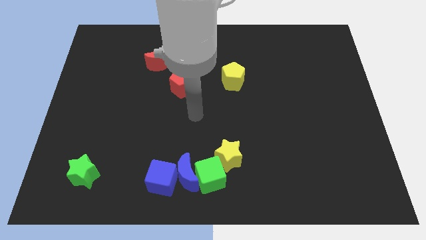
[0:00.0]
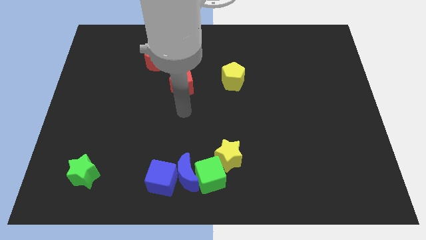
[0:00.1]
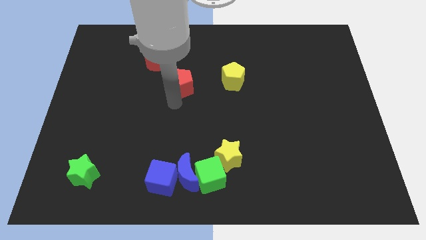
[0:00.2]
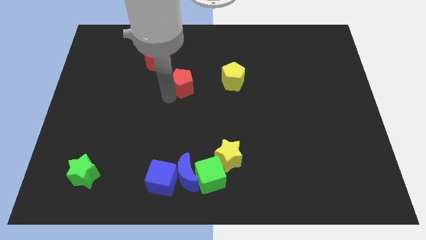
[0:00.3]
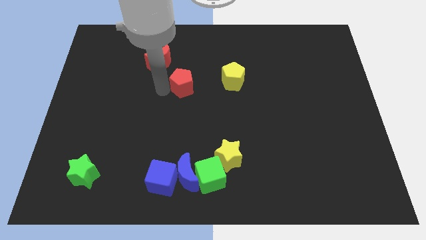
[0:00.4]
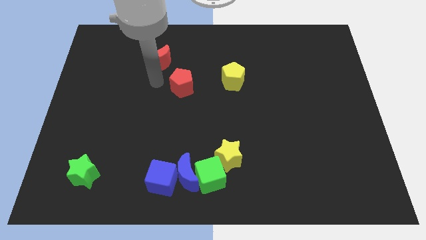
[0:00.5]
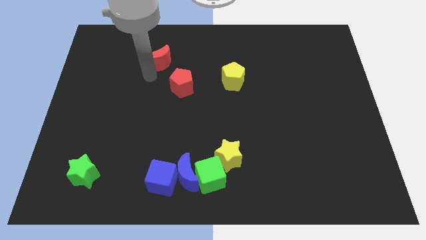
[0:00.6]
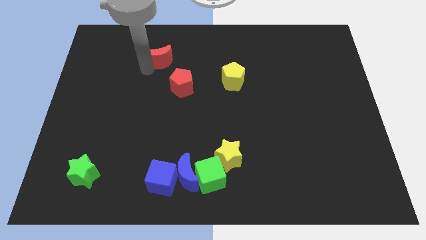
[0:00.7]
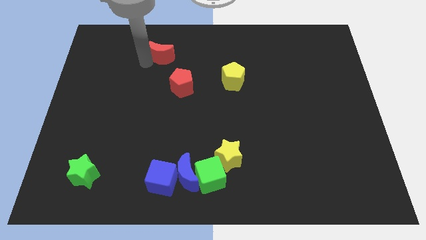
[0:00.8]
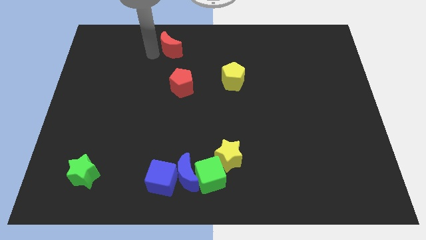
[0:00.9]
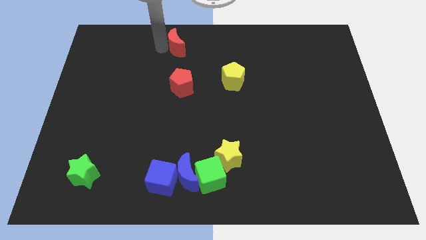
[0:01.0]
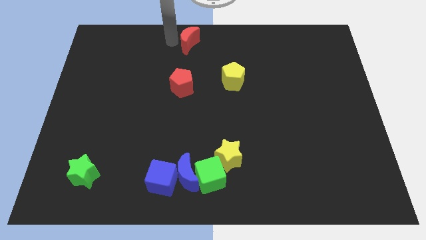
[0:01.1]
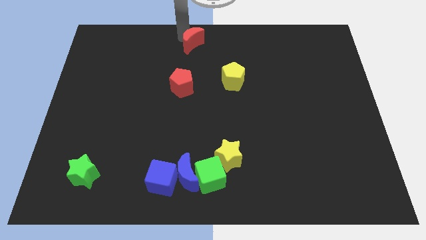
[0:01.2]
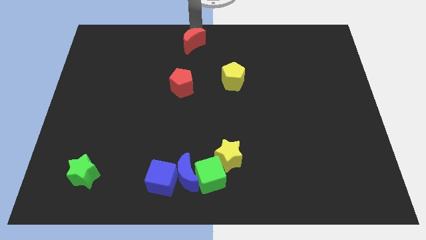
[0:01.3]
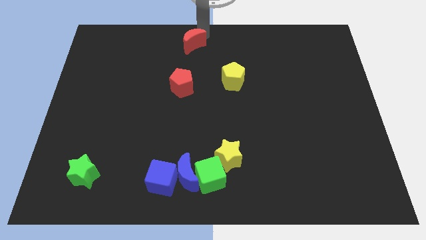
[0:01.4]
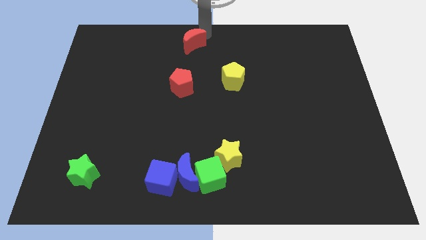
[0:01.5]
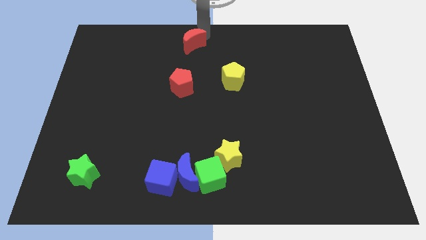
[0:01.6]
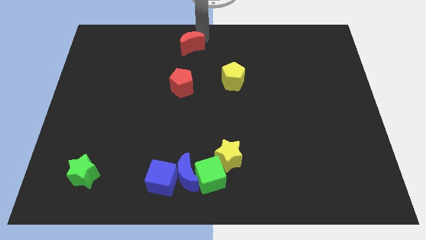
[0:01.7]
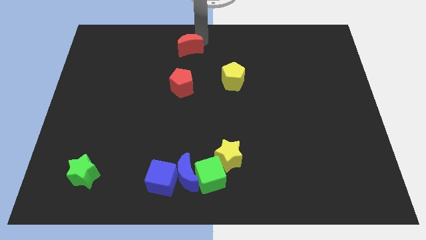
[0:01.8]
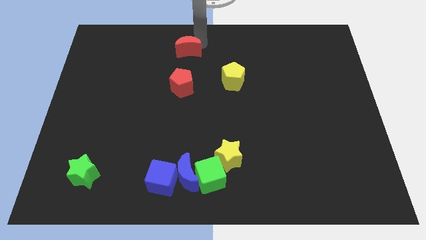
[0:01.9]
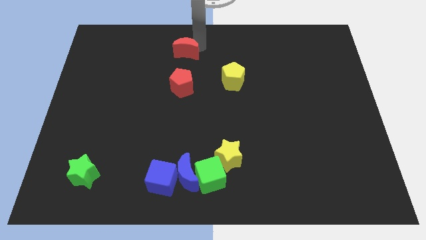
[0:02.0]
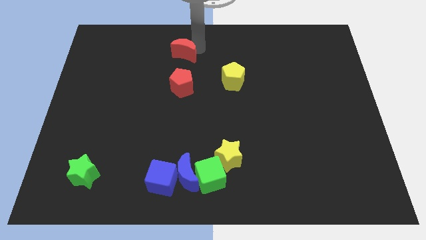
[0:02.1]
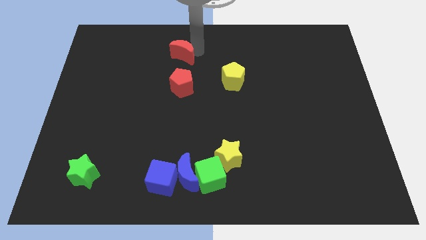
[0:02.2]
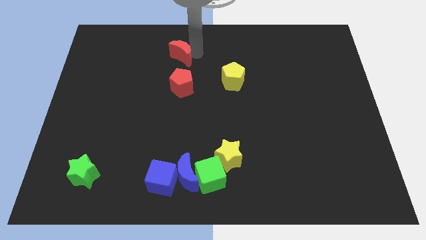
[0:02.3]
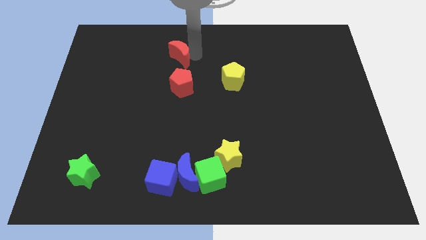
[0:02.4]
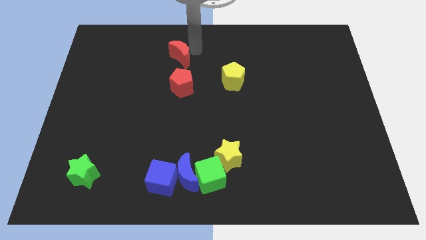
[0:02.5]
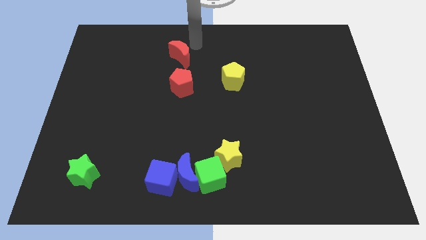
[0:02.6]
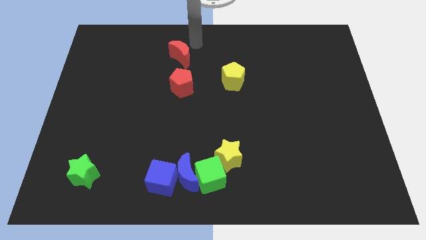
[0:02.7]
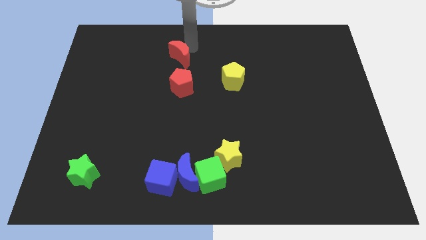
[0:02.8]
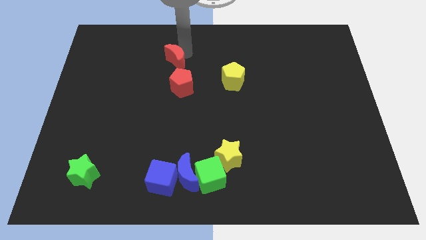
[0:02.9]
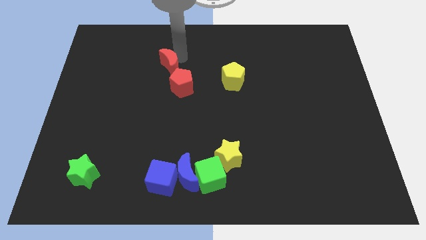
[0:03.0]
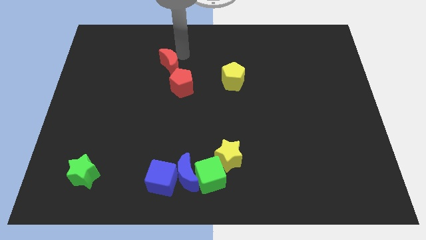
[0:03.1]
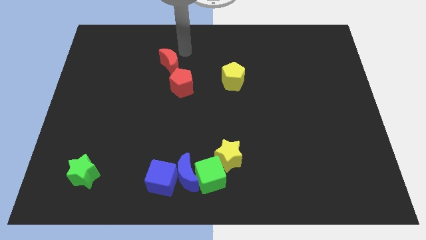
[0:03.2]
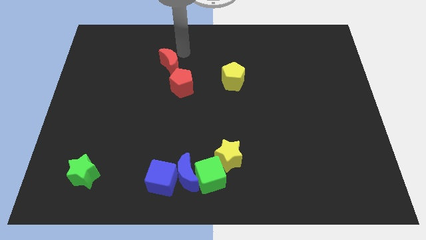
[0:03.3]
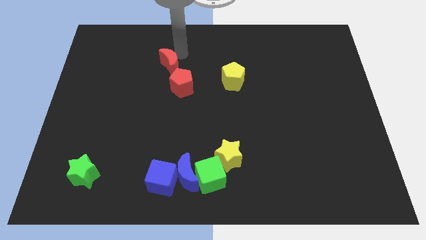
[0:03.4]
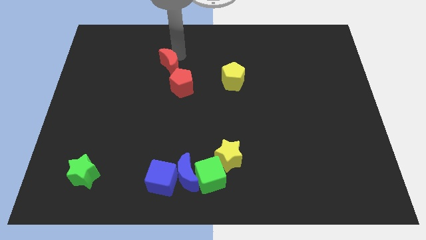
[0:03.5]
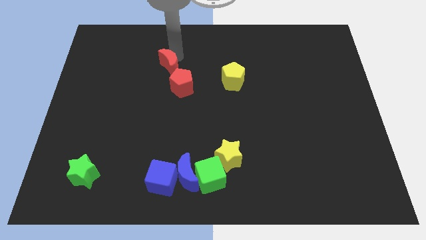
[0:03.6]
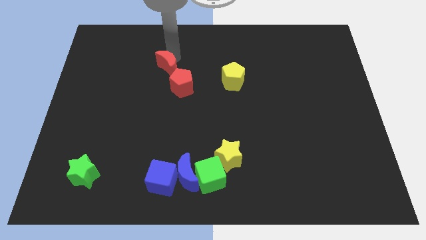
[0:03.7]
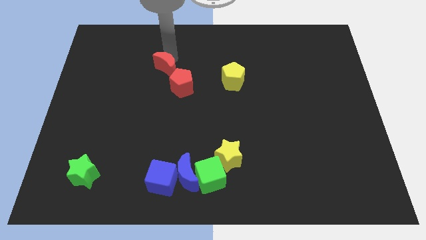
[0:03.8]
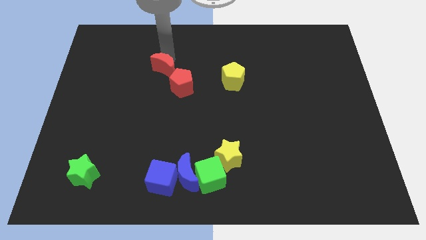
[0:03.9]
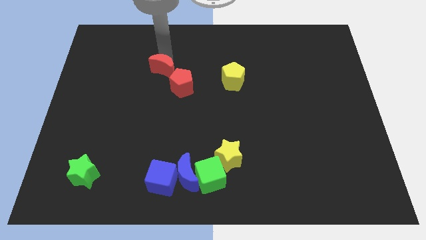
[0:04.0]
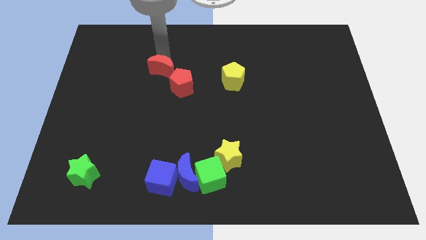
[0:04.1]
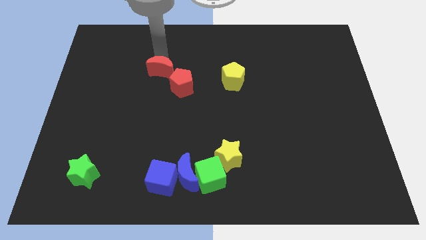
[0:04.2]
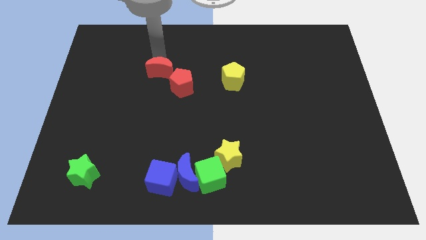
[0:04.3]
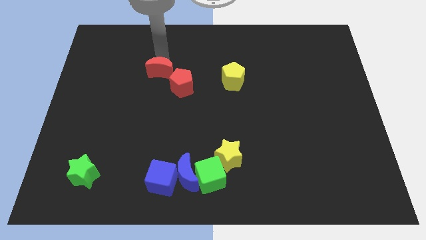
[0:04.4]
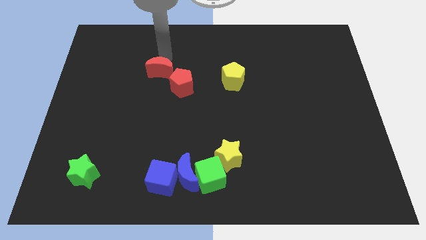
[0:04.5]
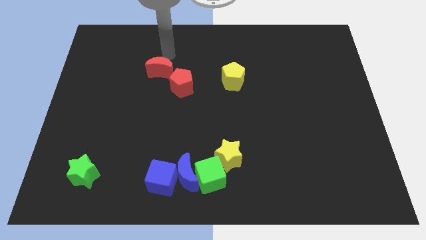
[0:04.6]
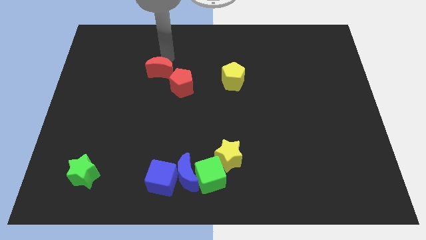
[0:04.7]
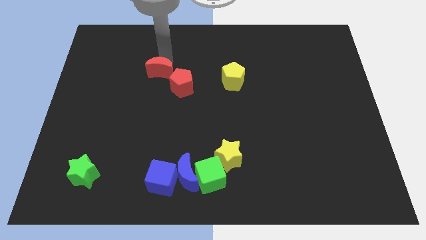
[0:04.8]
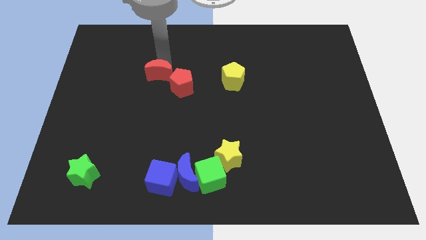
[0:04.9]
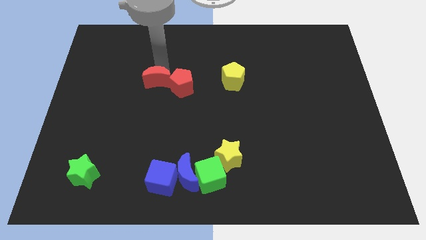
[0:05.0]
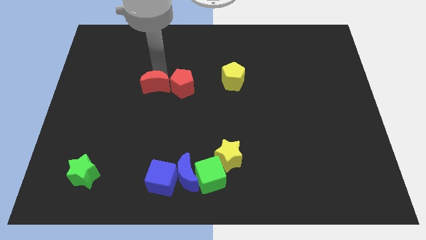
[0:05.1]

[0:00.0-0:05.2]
slightly slide the red moon downwards

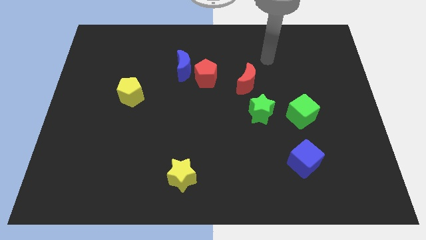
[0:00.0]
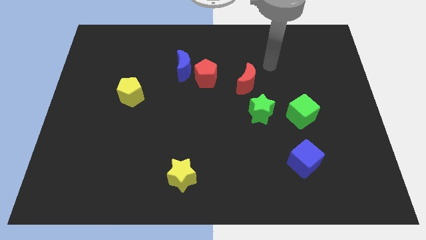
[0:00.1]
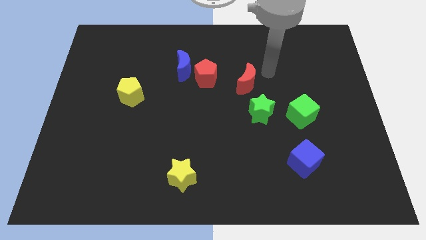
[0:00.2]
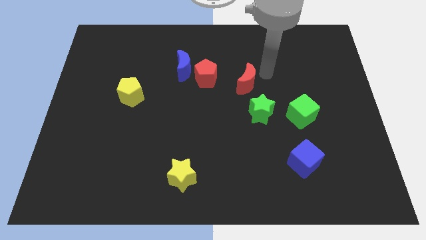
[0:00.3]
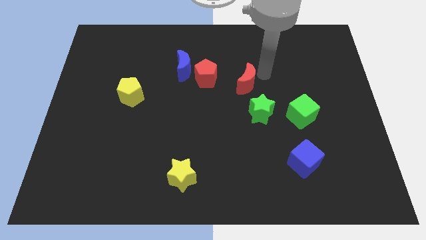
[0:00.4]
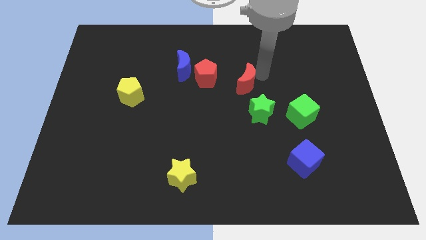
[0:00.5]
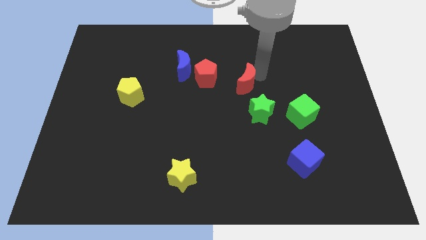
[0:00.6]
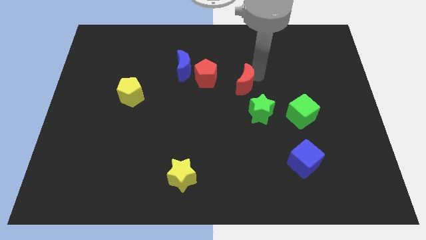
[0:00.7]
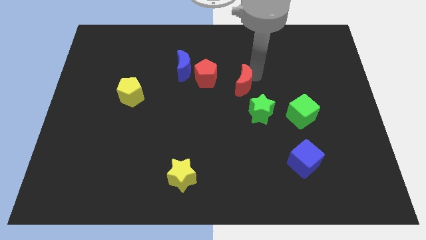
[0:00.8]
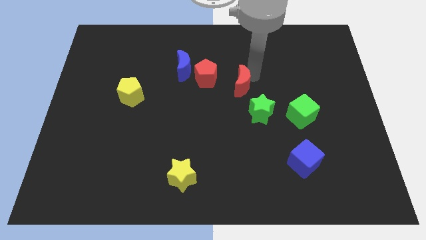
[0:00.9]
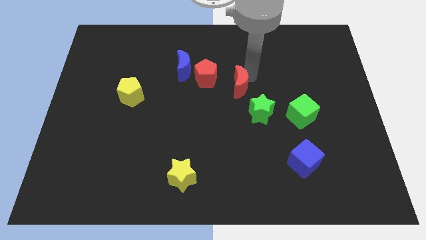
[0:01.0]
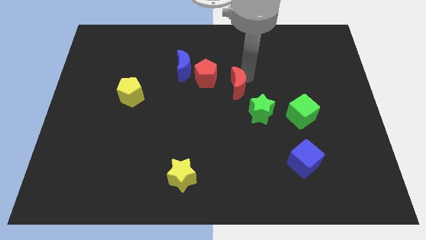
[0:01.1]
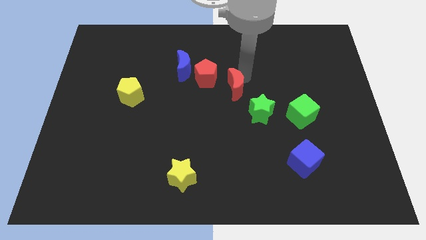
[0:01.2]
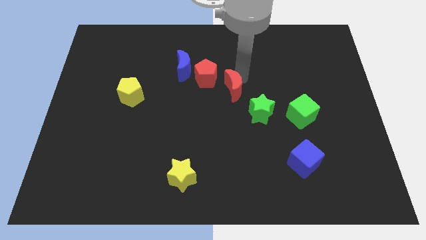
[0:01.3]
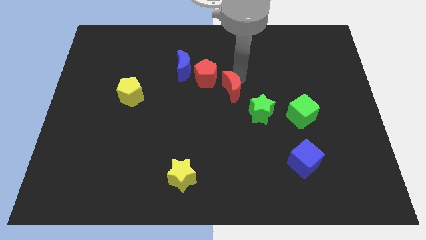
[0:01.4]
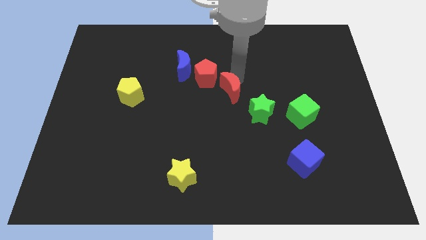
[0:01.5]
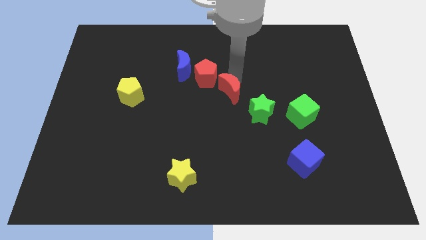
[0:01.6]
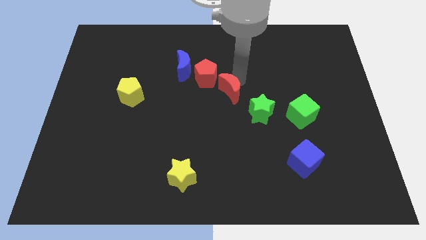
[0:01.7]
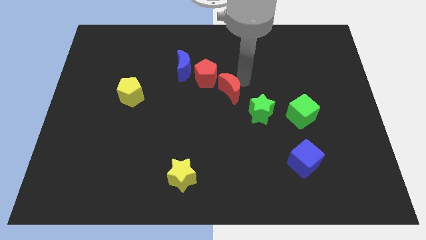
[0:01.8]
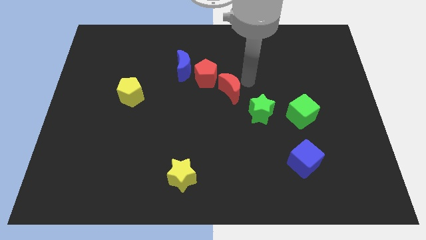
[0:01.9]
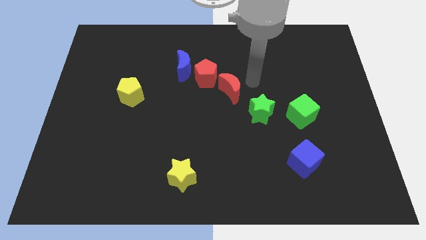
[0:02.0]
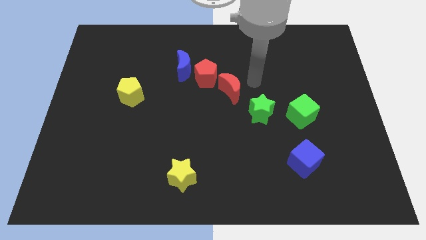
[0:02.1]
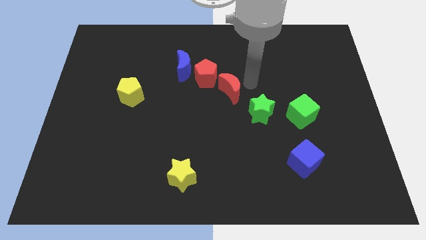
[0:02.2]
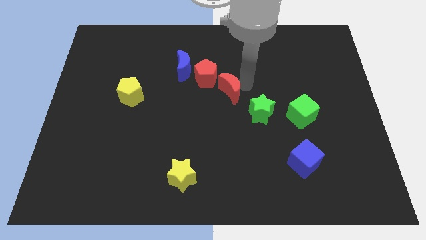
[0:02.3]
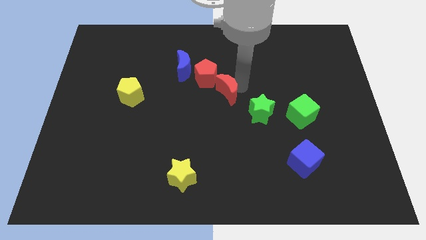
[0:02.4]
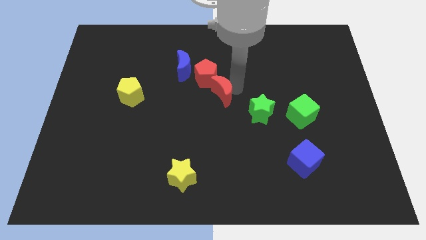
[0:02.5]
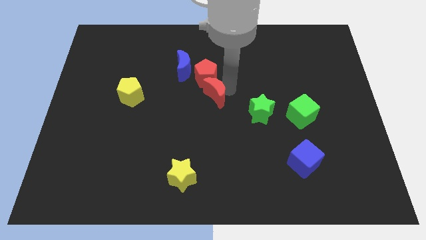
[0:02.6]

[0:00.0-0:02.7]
move the red moon a bit downwards and to the left

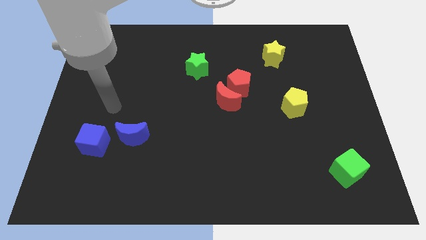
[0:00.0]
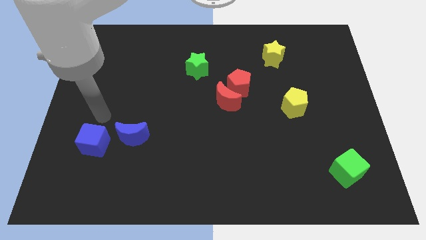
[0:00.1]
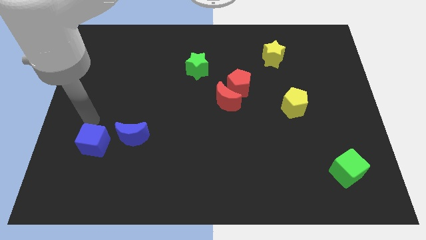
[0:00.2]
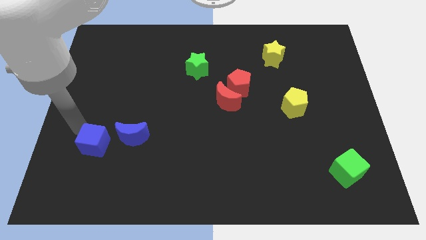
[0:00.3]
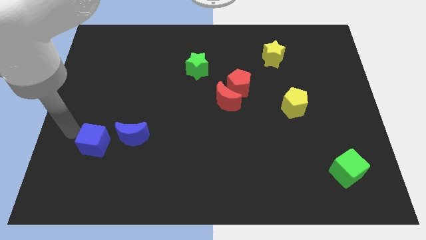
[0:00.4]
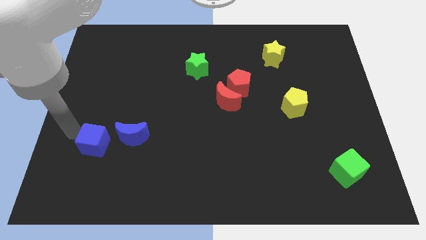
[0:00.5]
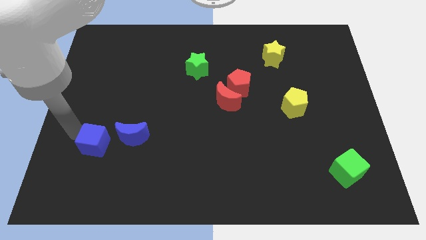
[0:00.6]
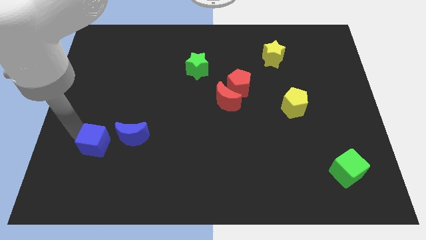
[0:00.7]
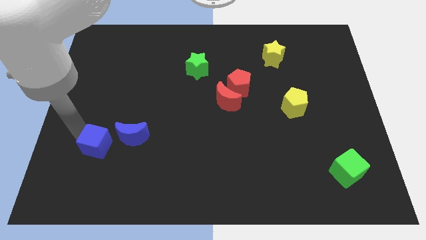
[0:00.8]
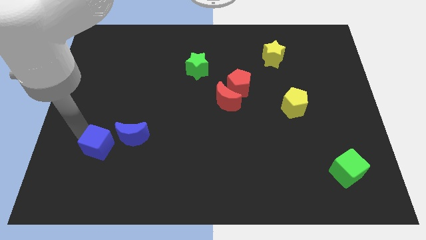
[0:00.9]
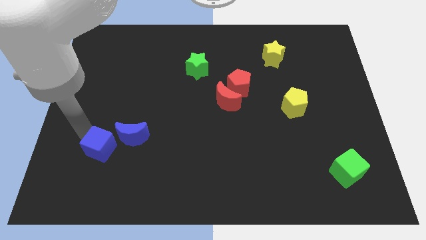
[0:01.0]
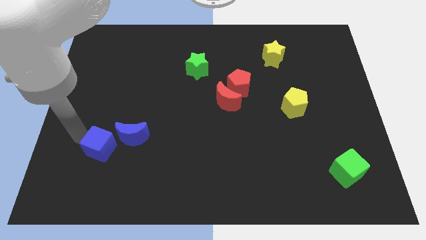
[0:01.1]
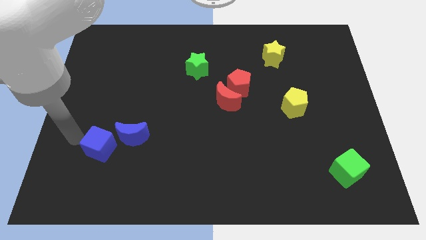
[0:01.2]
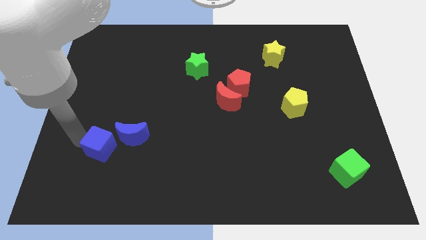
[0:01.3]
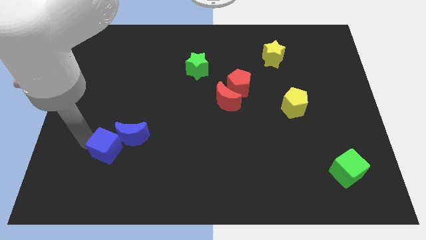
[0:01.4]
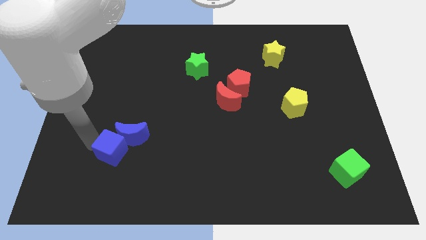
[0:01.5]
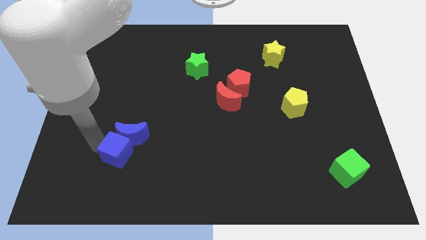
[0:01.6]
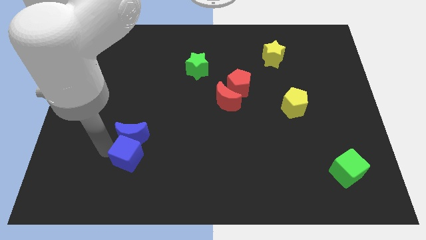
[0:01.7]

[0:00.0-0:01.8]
slightly move the blue cube to the right
